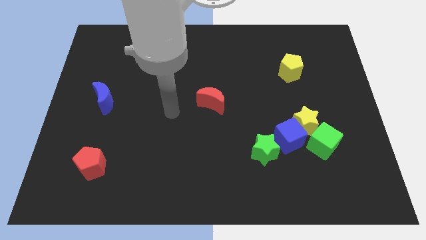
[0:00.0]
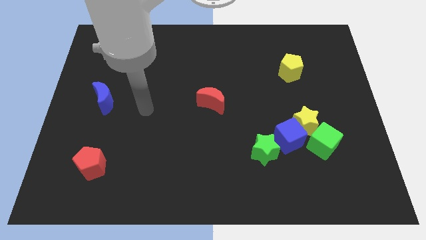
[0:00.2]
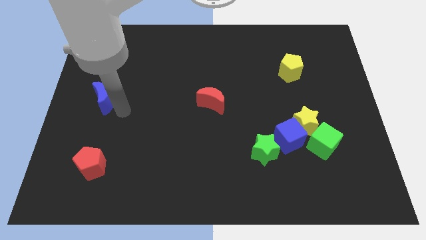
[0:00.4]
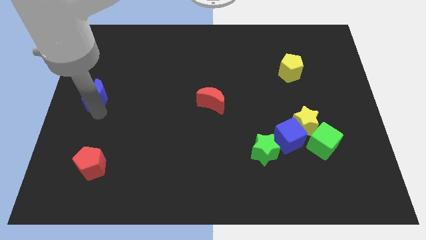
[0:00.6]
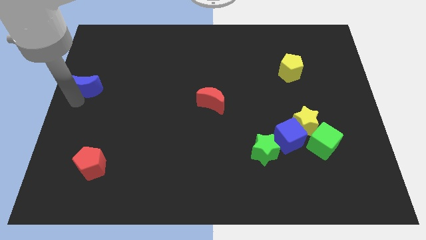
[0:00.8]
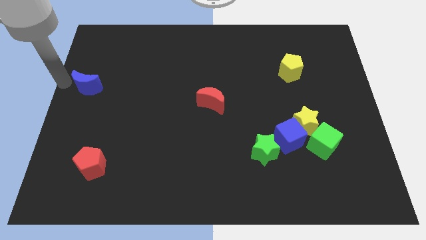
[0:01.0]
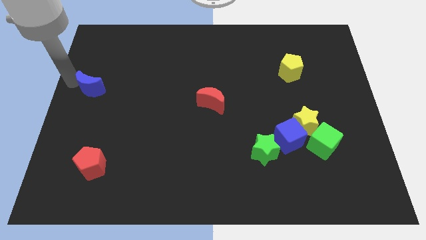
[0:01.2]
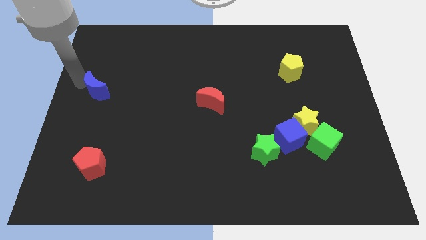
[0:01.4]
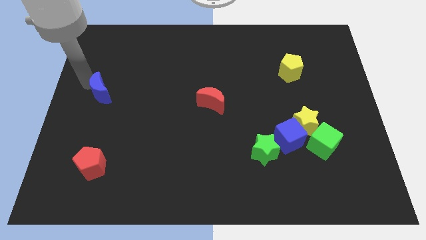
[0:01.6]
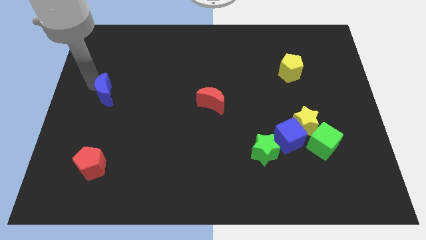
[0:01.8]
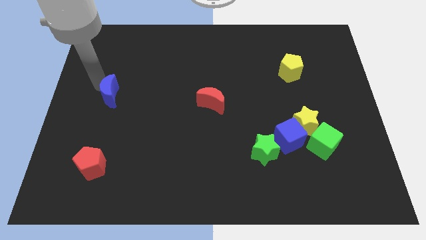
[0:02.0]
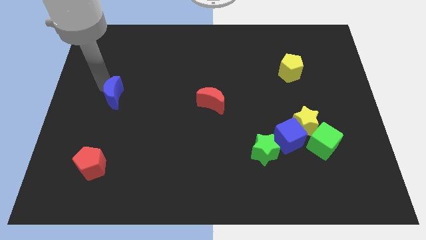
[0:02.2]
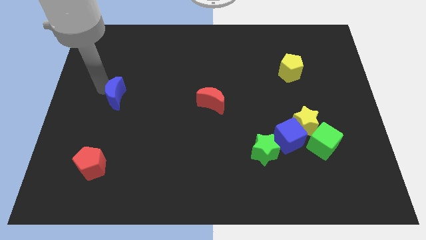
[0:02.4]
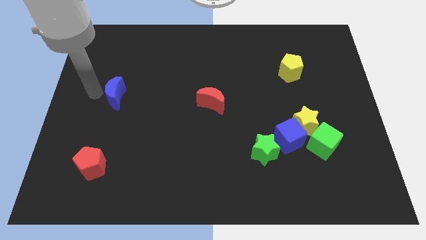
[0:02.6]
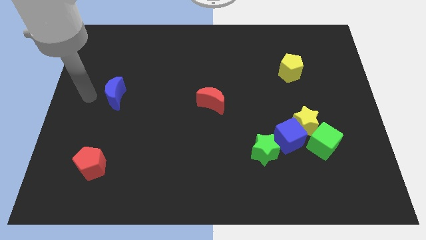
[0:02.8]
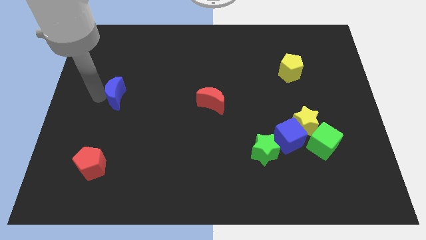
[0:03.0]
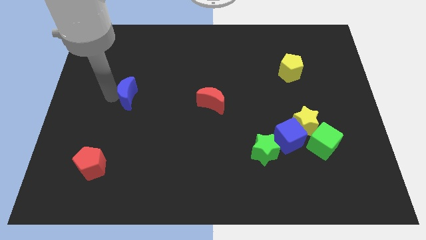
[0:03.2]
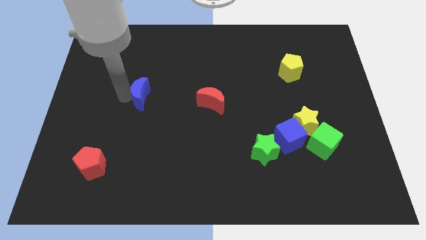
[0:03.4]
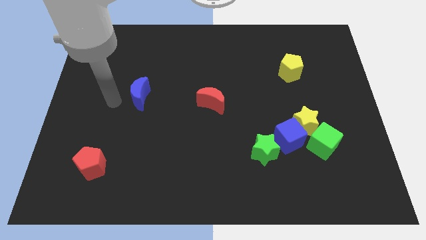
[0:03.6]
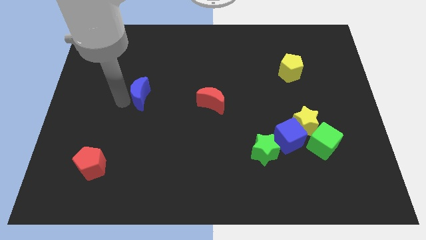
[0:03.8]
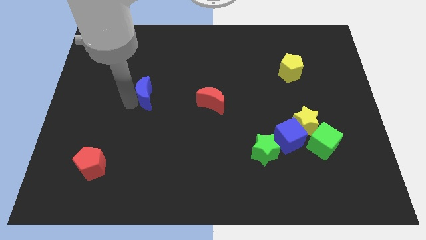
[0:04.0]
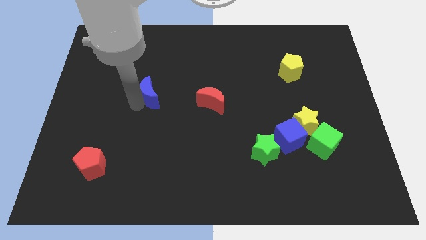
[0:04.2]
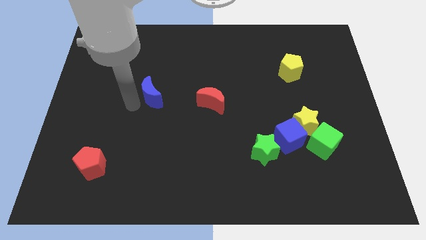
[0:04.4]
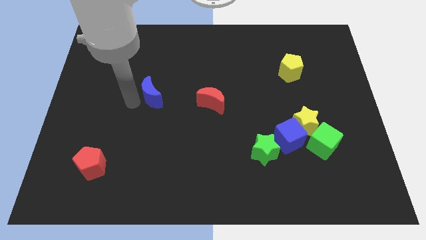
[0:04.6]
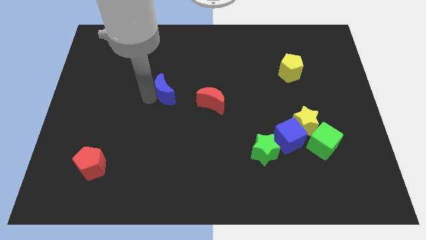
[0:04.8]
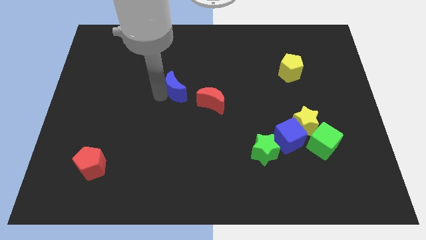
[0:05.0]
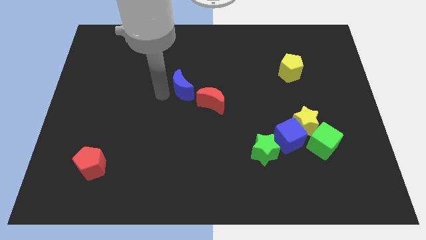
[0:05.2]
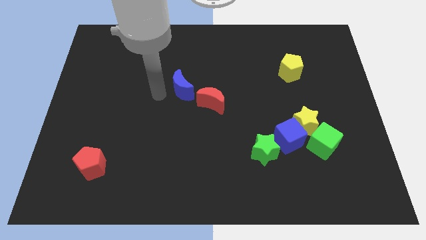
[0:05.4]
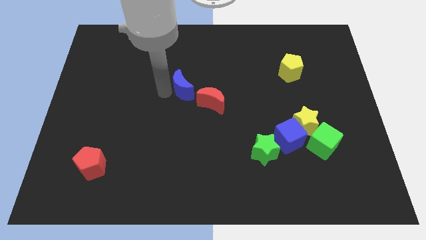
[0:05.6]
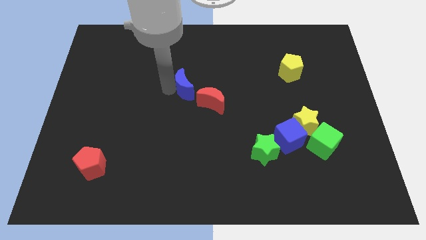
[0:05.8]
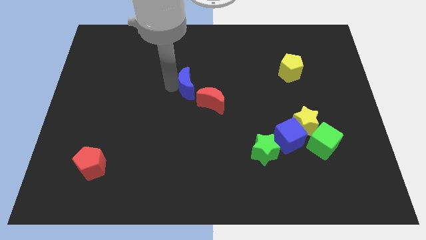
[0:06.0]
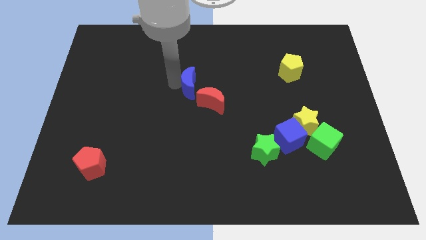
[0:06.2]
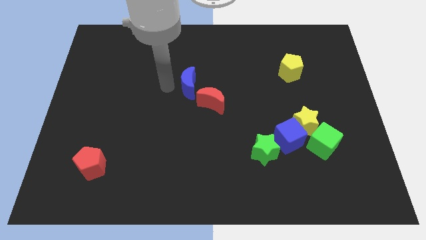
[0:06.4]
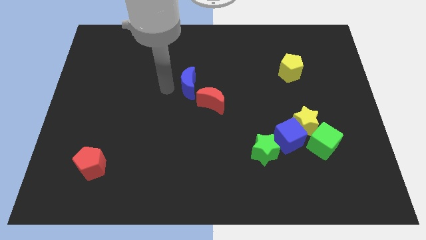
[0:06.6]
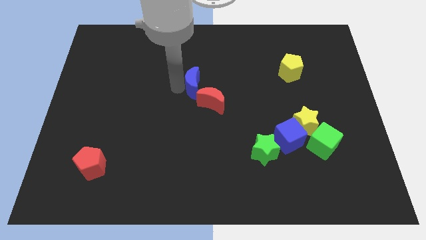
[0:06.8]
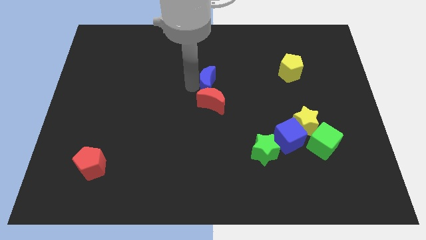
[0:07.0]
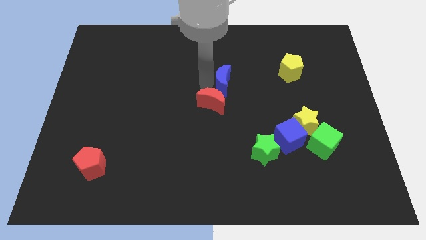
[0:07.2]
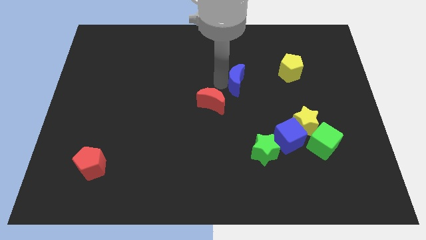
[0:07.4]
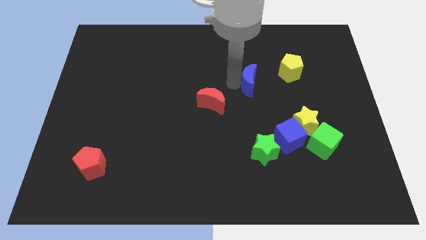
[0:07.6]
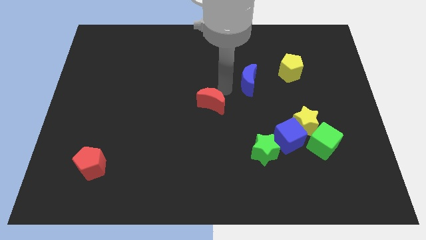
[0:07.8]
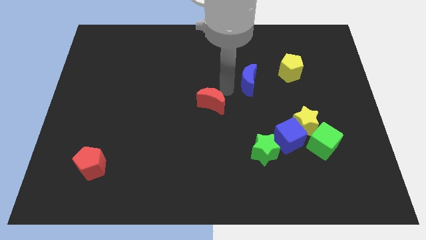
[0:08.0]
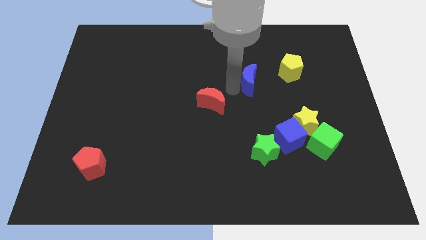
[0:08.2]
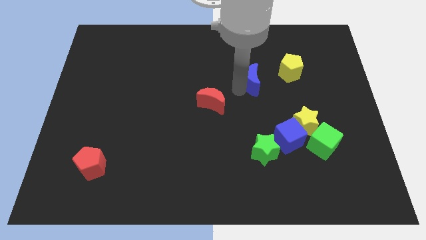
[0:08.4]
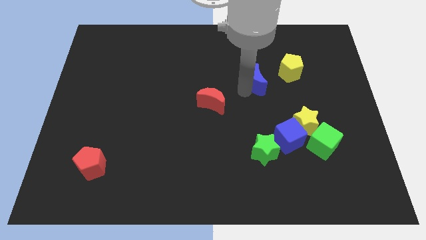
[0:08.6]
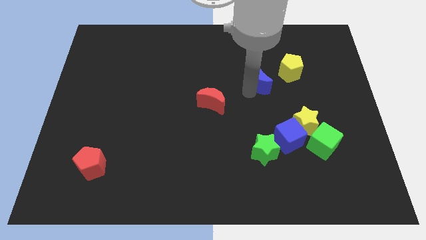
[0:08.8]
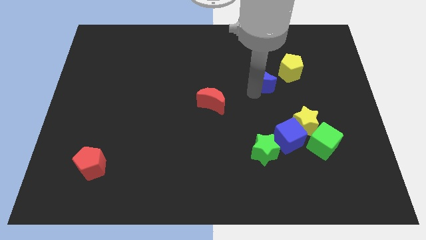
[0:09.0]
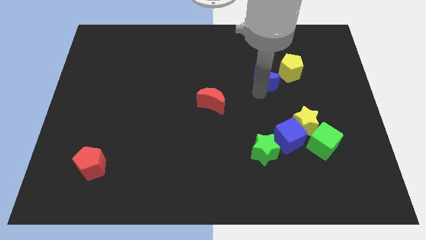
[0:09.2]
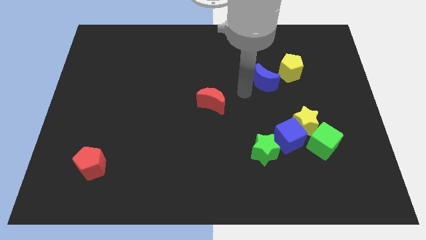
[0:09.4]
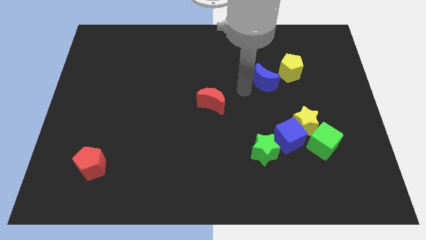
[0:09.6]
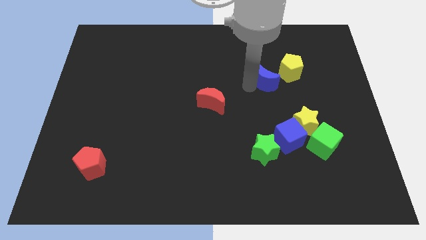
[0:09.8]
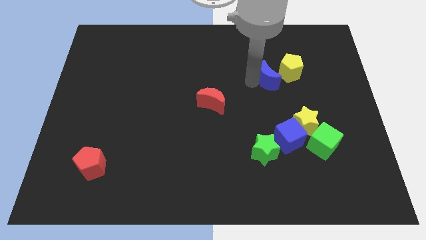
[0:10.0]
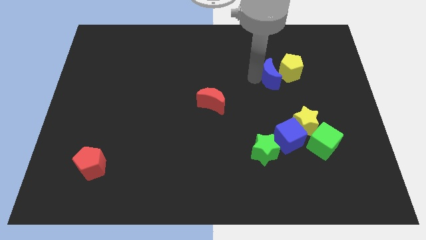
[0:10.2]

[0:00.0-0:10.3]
slide the blue moon to the yellow pentagon

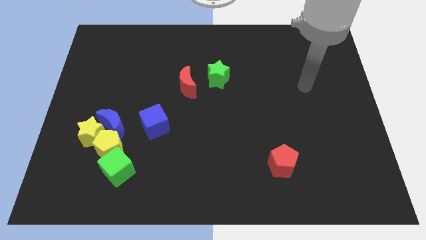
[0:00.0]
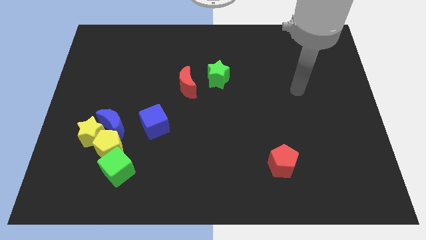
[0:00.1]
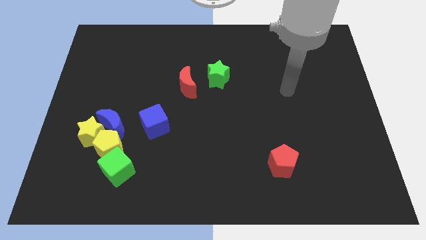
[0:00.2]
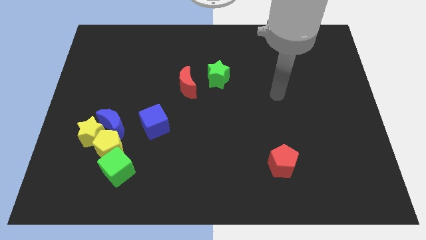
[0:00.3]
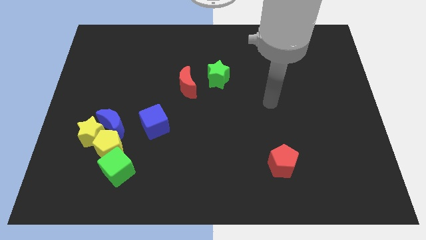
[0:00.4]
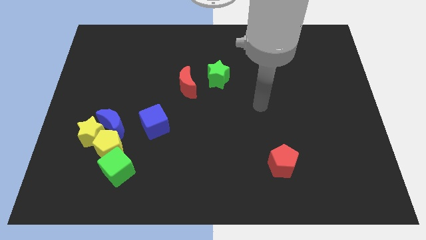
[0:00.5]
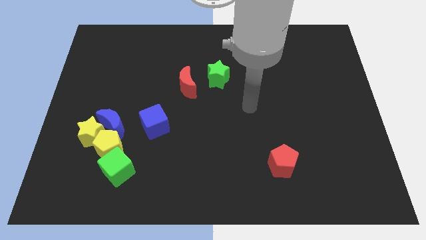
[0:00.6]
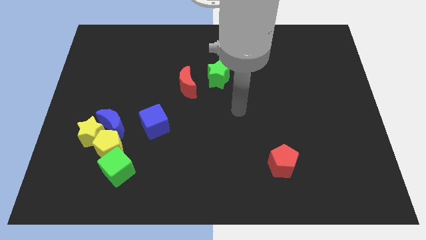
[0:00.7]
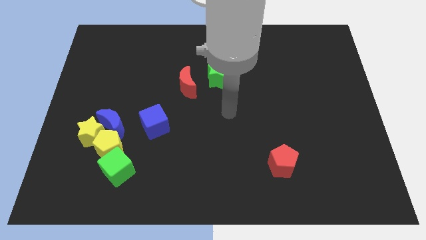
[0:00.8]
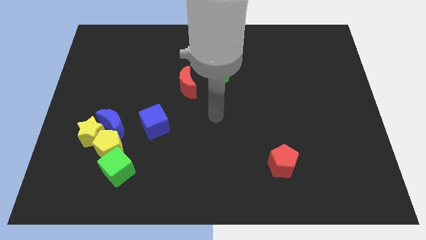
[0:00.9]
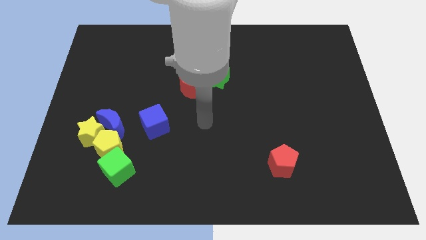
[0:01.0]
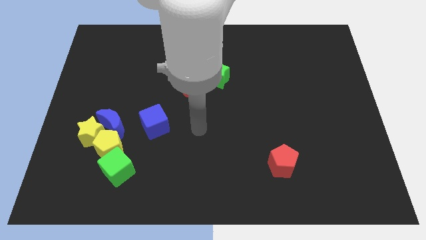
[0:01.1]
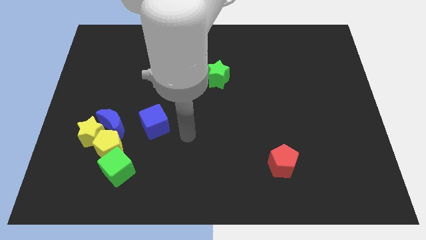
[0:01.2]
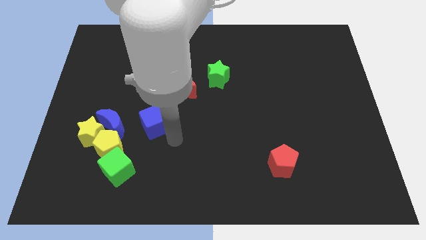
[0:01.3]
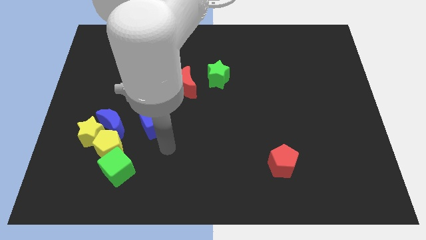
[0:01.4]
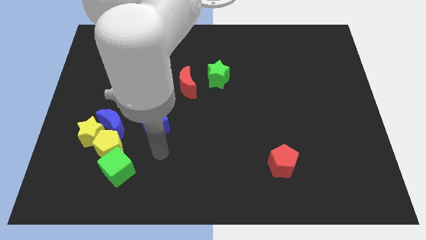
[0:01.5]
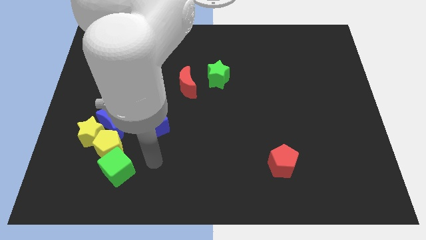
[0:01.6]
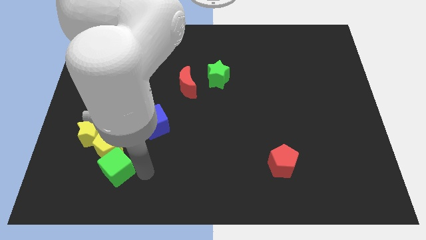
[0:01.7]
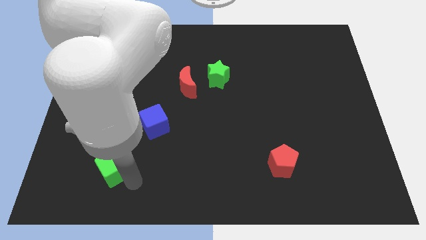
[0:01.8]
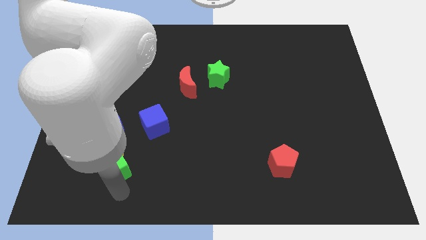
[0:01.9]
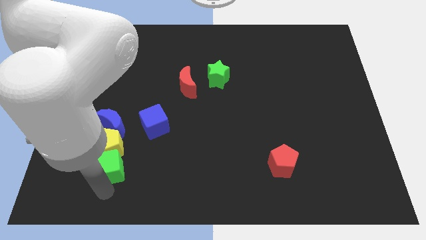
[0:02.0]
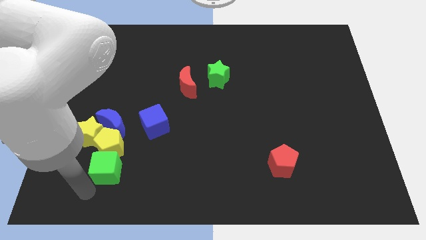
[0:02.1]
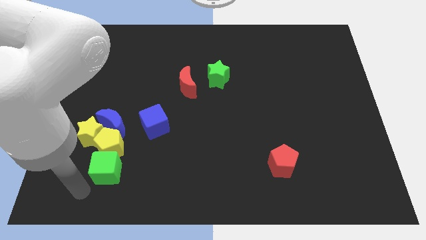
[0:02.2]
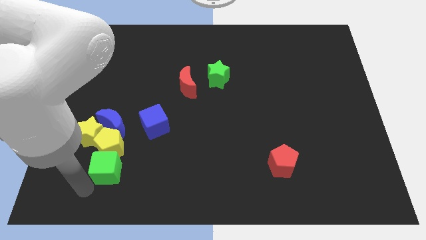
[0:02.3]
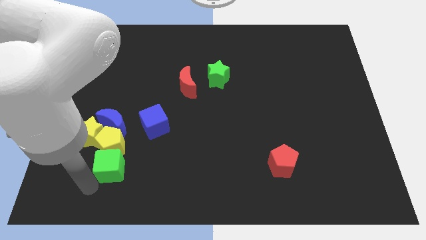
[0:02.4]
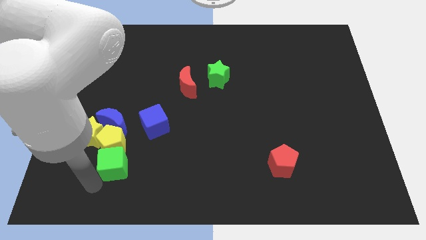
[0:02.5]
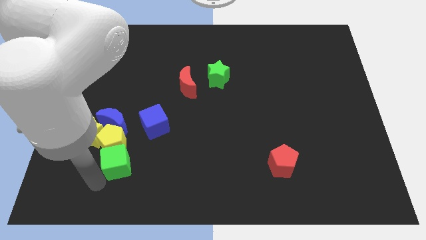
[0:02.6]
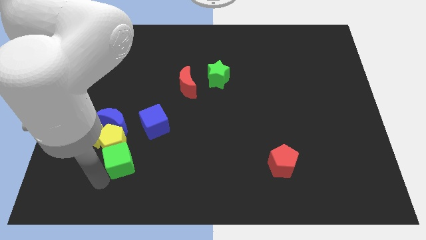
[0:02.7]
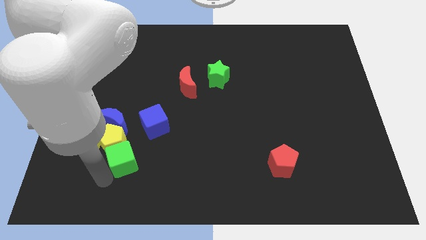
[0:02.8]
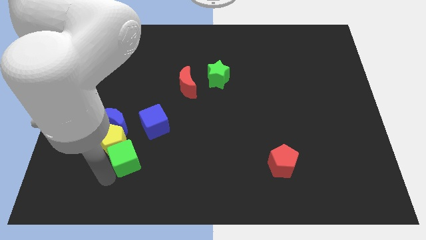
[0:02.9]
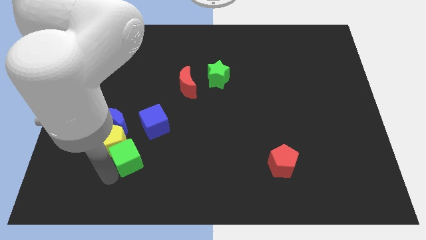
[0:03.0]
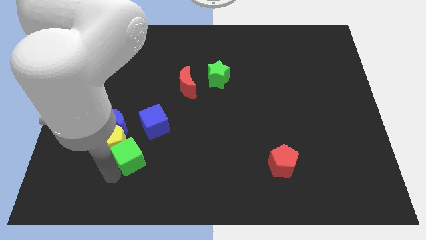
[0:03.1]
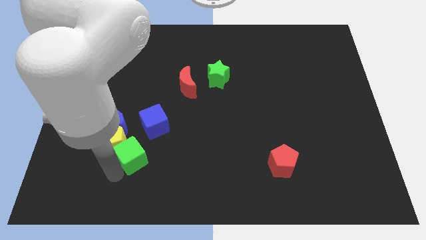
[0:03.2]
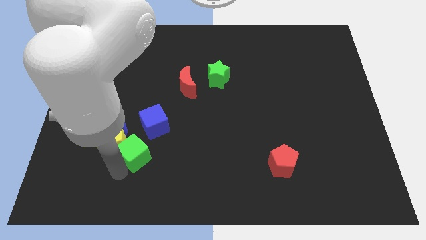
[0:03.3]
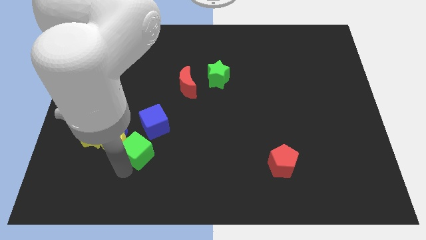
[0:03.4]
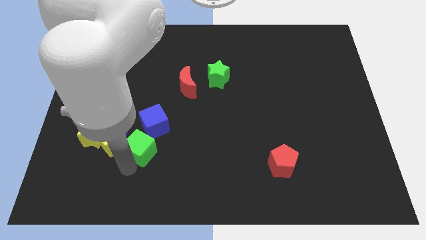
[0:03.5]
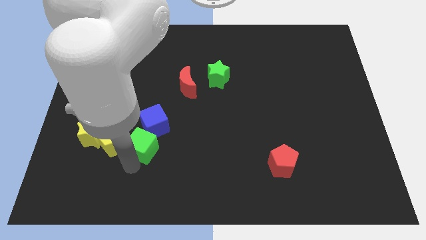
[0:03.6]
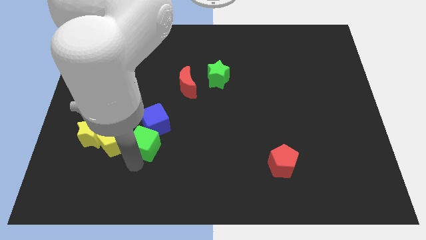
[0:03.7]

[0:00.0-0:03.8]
push the green cube close to the blue cube
